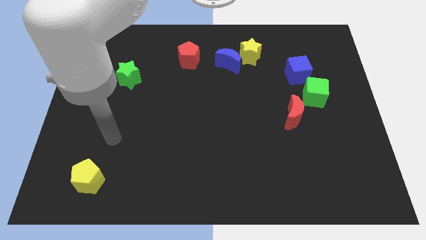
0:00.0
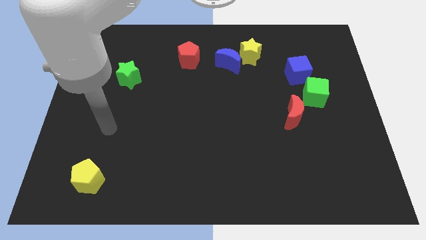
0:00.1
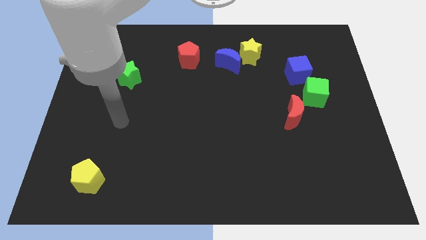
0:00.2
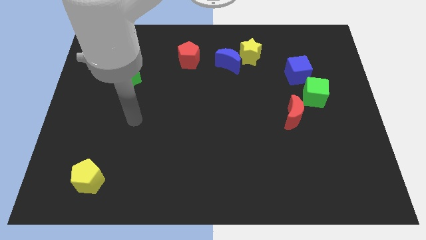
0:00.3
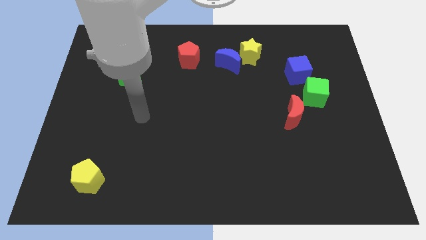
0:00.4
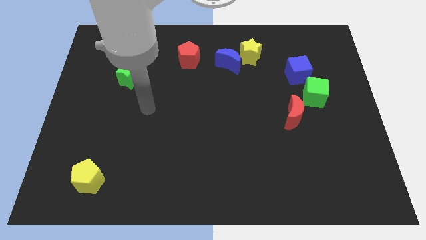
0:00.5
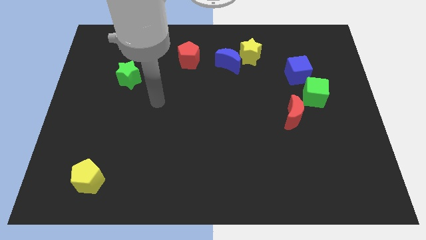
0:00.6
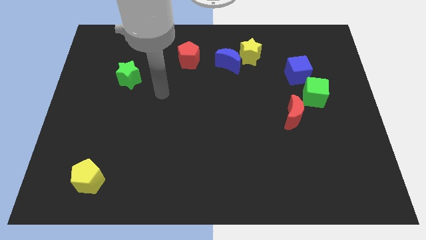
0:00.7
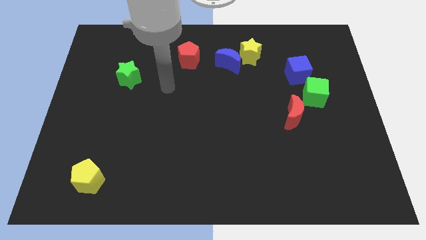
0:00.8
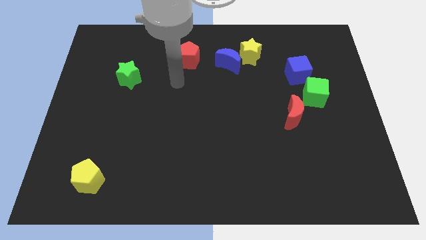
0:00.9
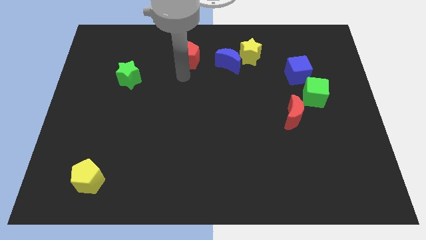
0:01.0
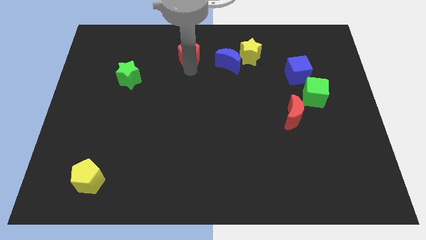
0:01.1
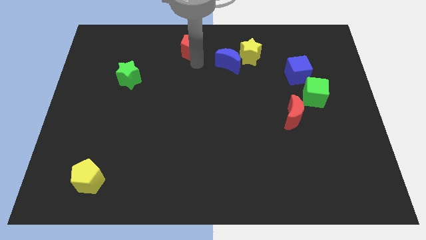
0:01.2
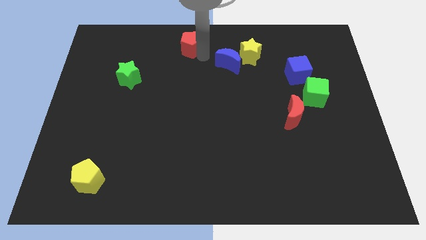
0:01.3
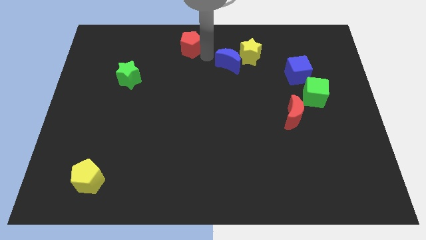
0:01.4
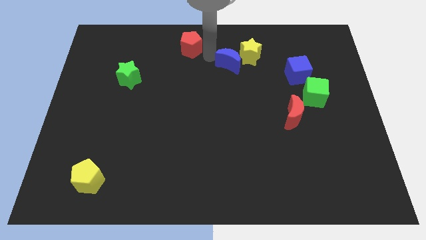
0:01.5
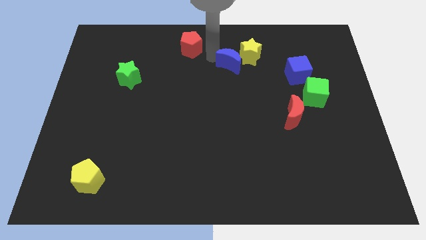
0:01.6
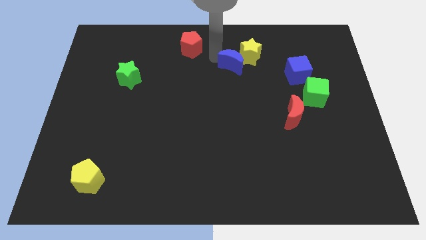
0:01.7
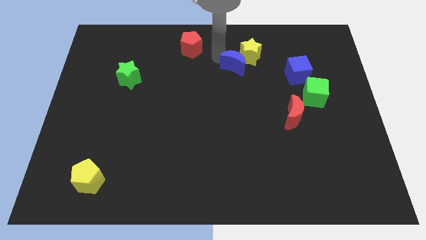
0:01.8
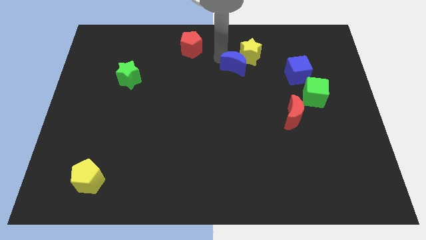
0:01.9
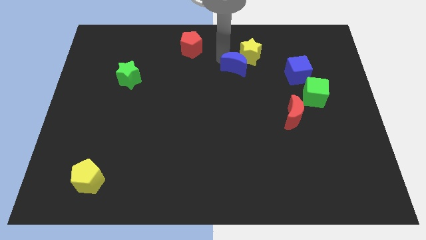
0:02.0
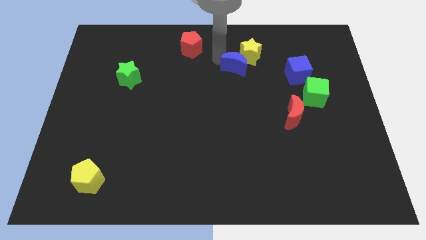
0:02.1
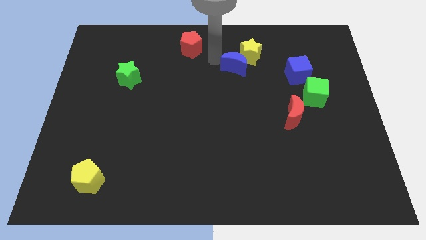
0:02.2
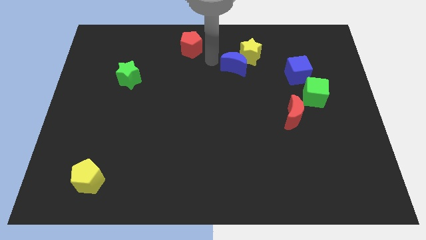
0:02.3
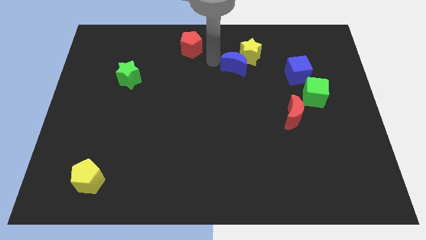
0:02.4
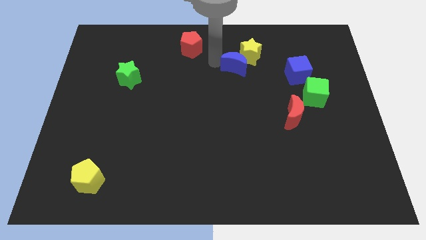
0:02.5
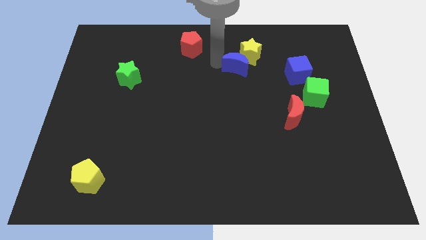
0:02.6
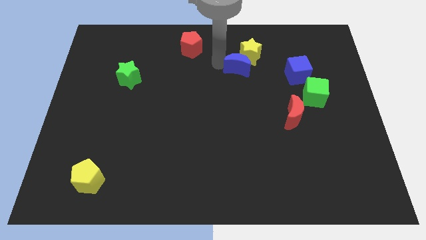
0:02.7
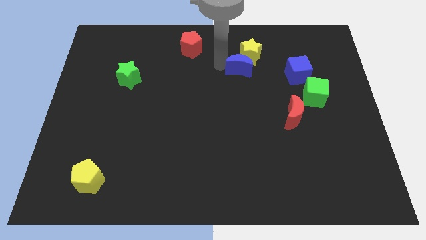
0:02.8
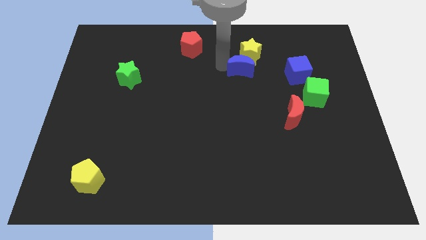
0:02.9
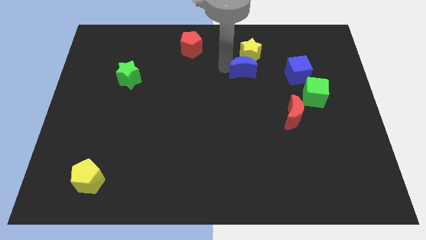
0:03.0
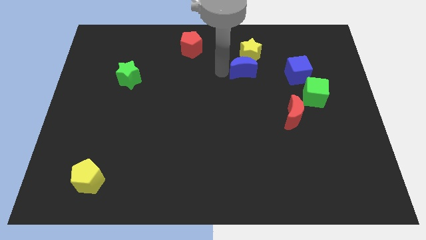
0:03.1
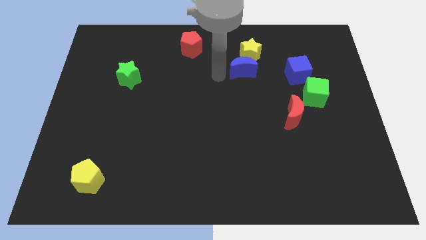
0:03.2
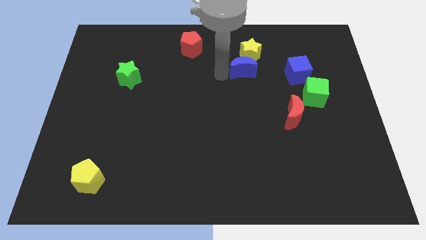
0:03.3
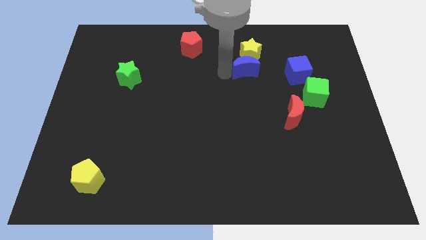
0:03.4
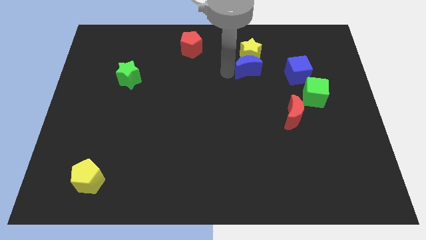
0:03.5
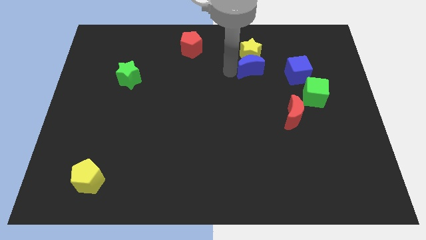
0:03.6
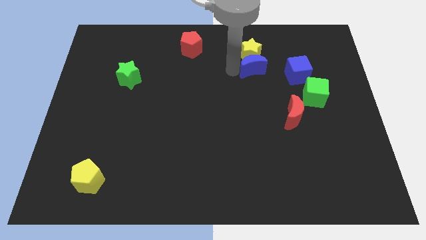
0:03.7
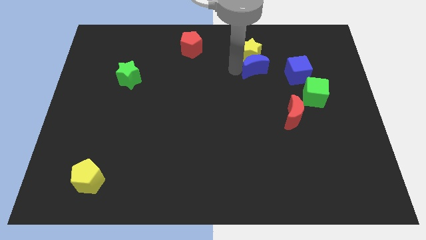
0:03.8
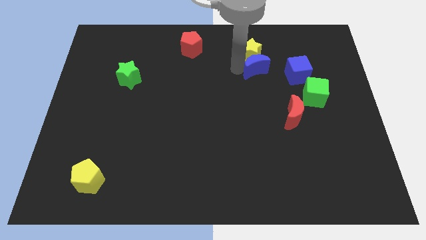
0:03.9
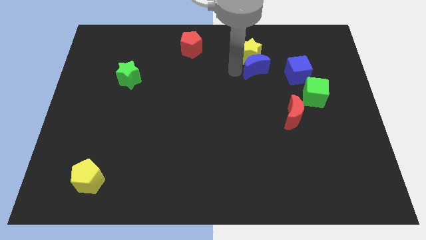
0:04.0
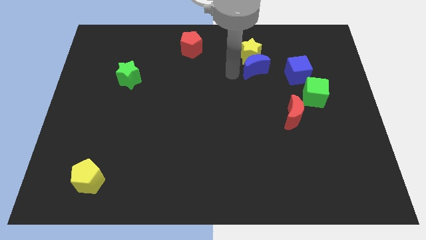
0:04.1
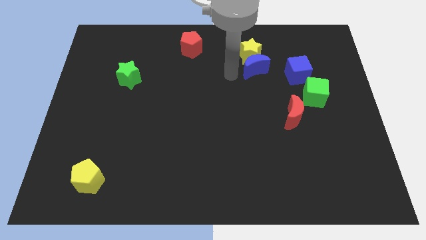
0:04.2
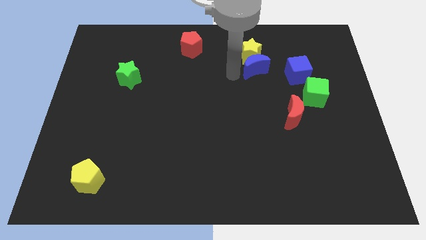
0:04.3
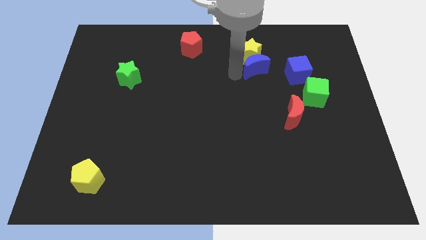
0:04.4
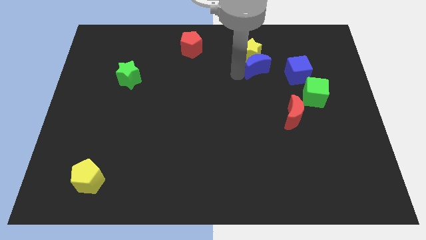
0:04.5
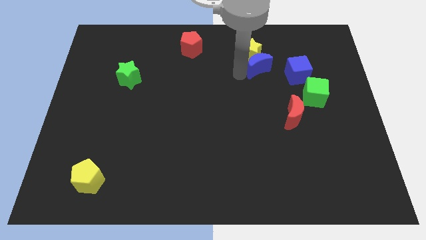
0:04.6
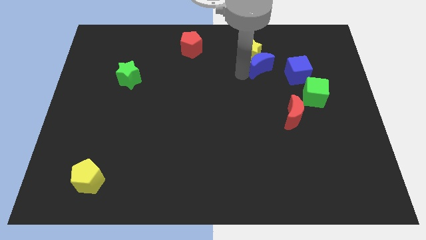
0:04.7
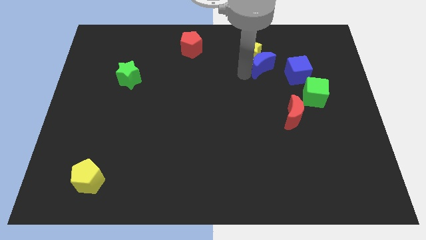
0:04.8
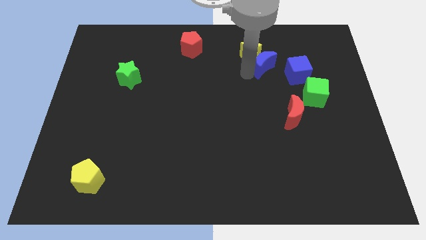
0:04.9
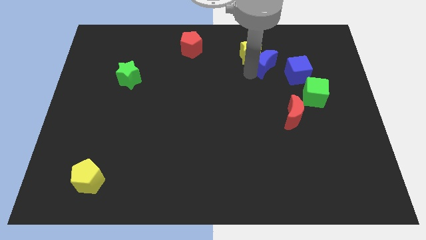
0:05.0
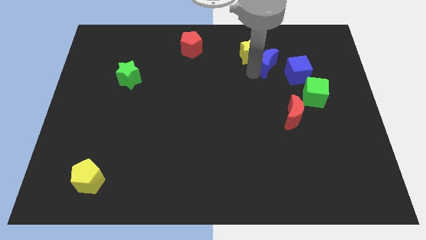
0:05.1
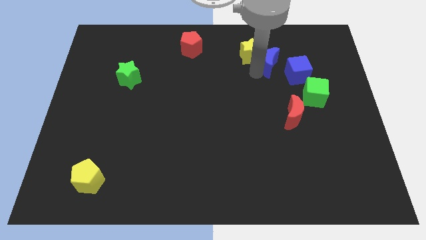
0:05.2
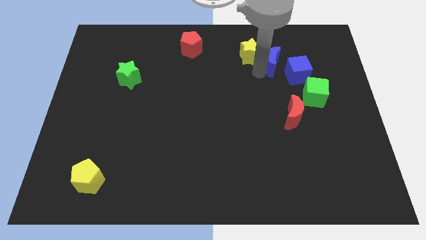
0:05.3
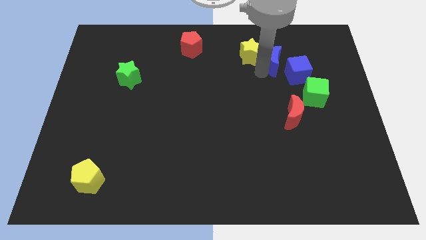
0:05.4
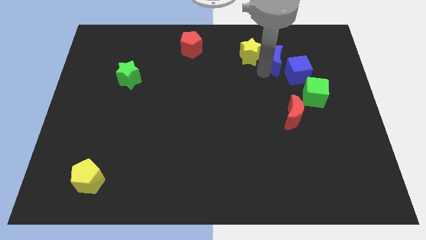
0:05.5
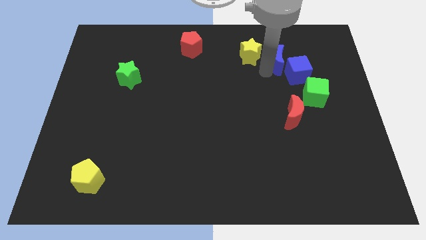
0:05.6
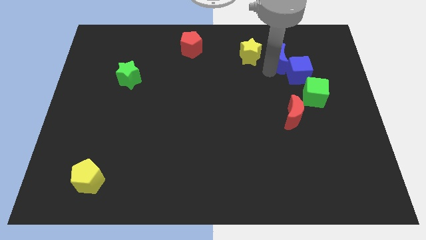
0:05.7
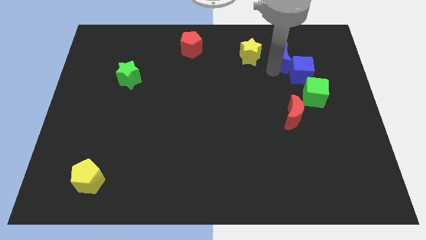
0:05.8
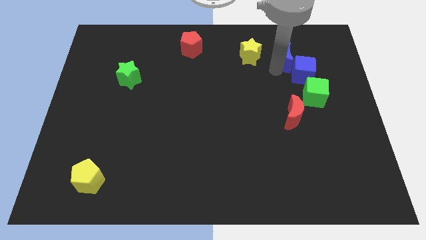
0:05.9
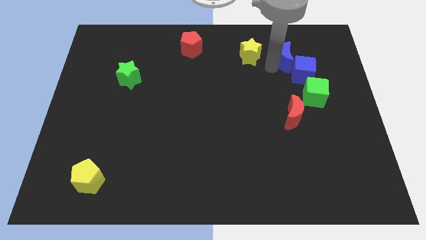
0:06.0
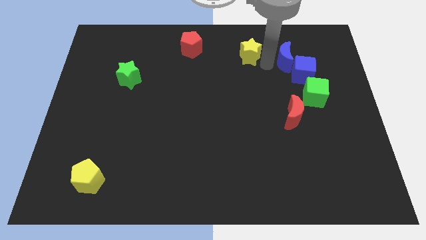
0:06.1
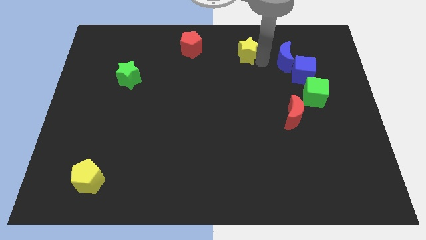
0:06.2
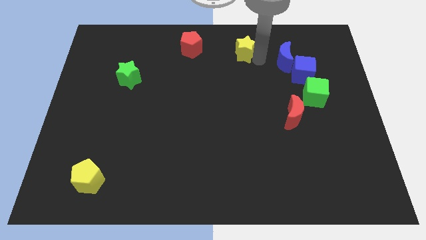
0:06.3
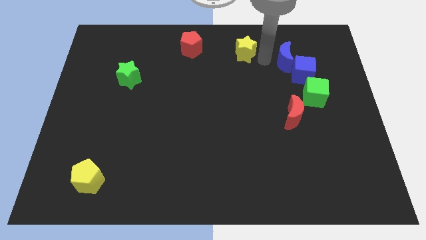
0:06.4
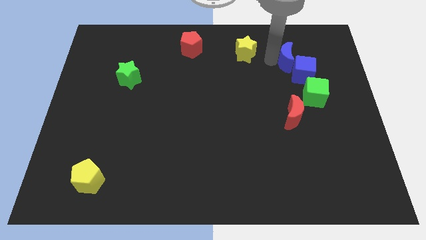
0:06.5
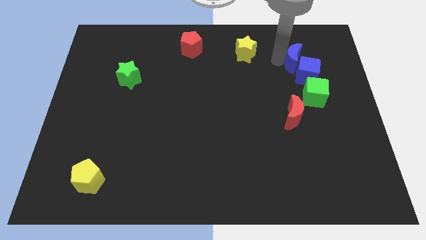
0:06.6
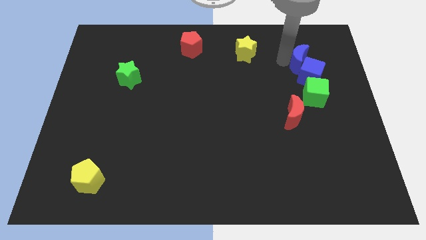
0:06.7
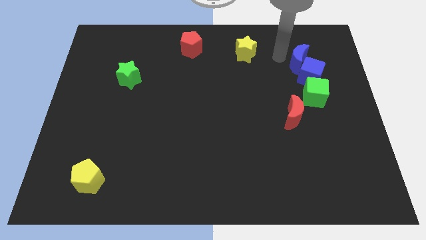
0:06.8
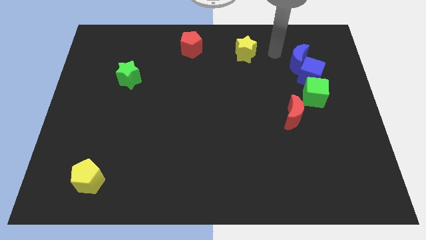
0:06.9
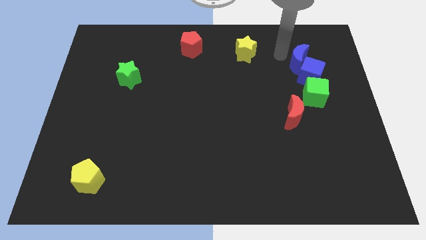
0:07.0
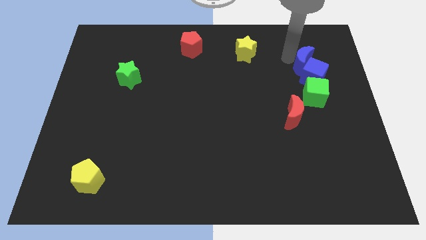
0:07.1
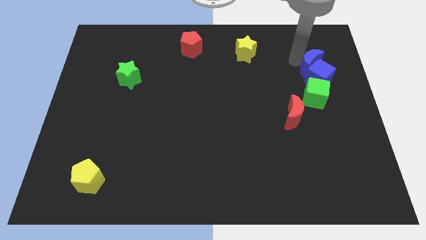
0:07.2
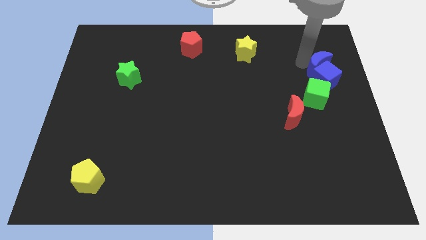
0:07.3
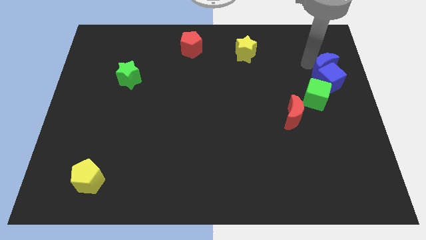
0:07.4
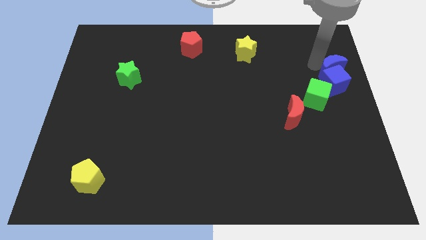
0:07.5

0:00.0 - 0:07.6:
push the blue moon to the center right
